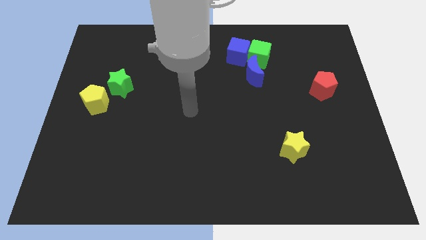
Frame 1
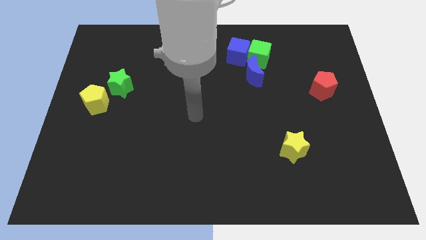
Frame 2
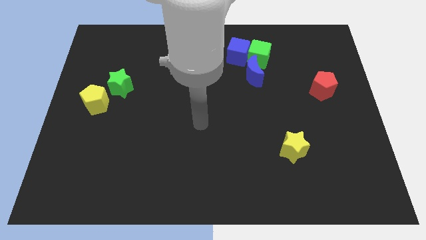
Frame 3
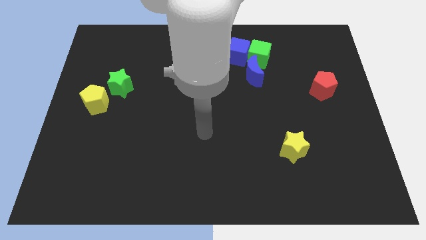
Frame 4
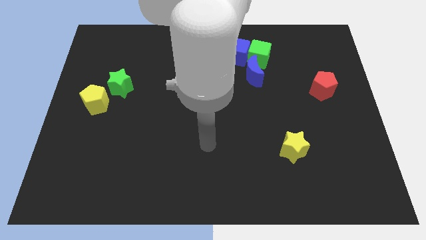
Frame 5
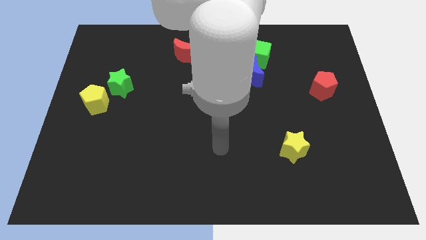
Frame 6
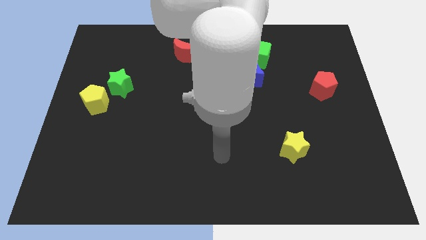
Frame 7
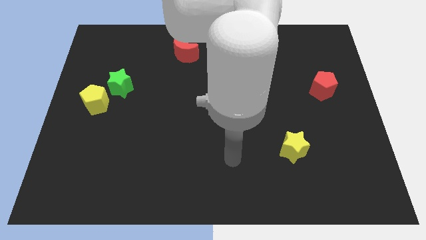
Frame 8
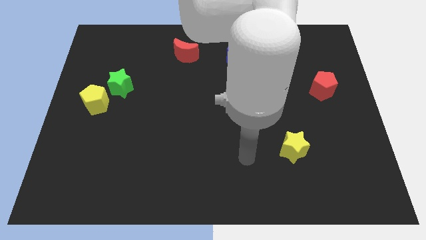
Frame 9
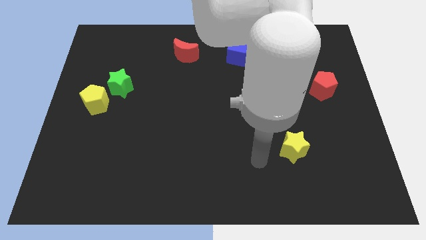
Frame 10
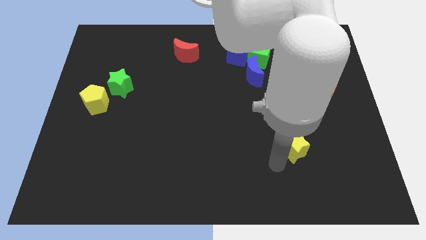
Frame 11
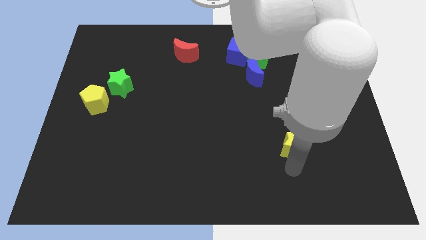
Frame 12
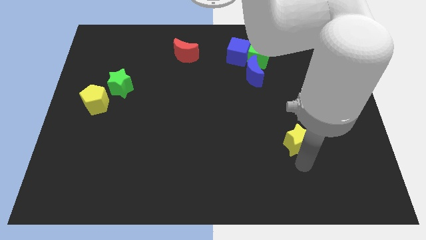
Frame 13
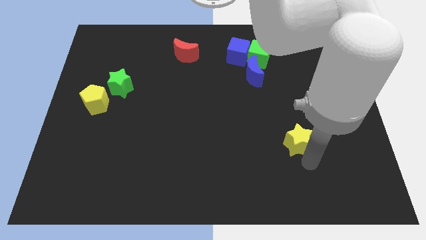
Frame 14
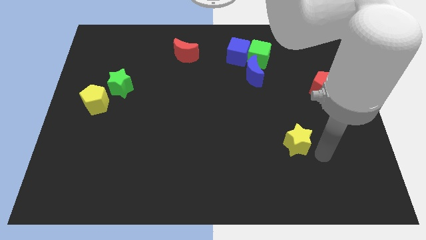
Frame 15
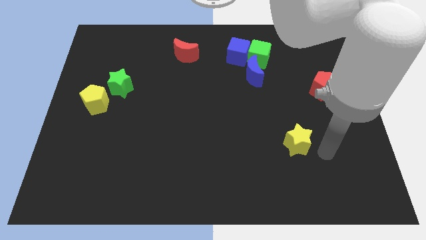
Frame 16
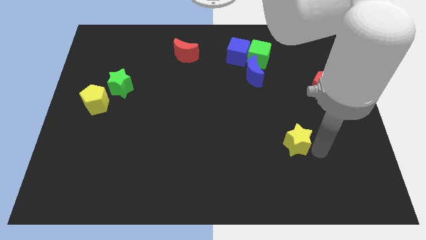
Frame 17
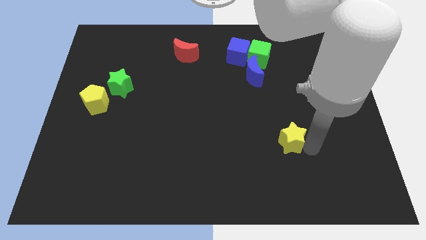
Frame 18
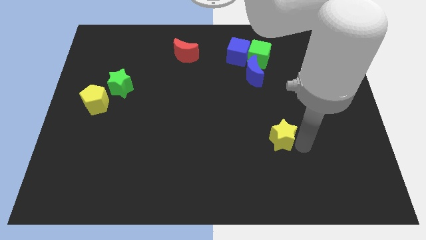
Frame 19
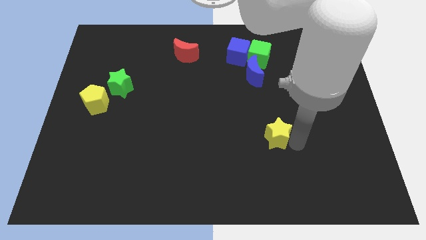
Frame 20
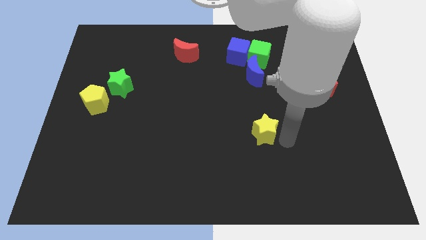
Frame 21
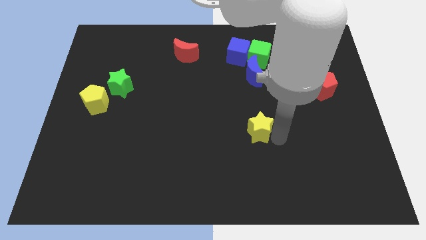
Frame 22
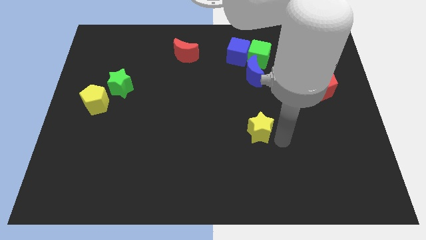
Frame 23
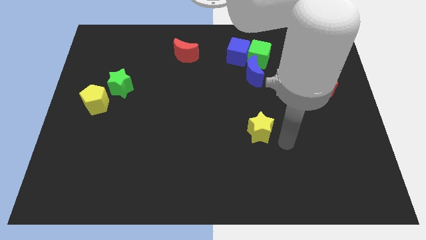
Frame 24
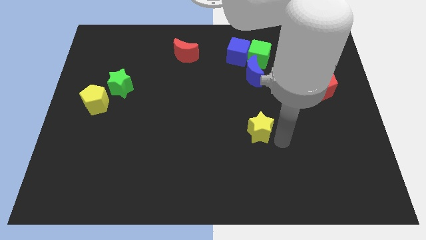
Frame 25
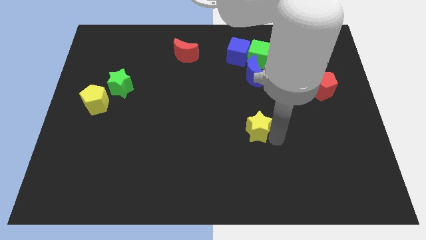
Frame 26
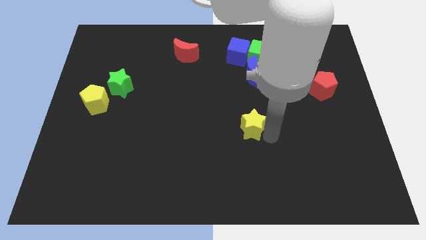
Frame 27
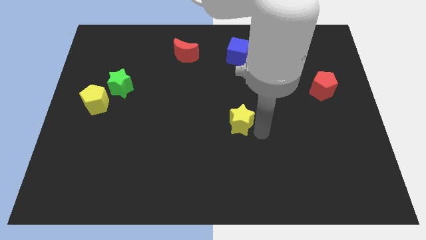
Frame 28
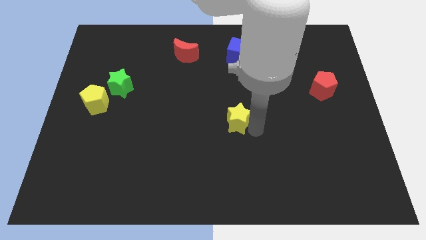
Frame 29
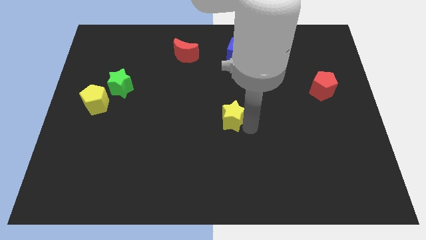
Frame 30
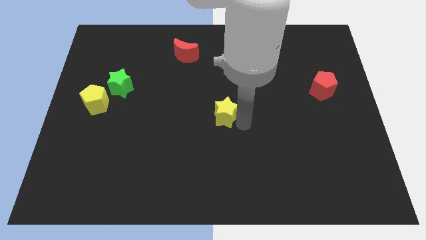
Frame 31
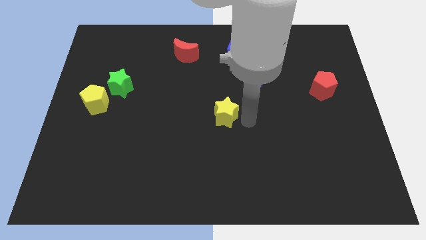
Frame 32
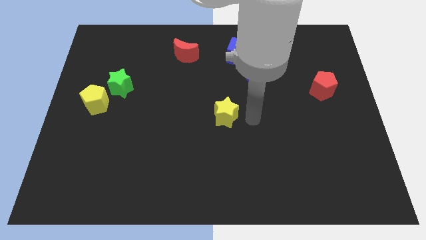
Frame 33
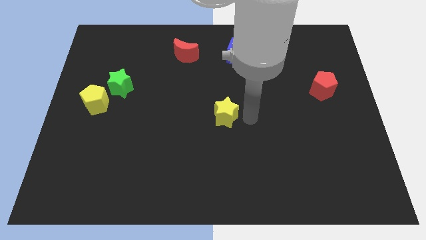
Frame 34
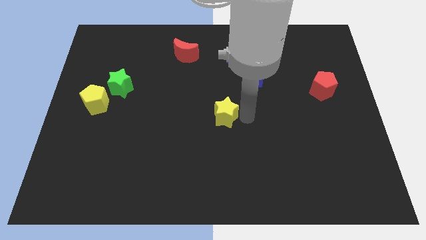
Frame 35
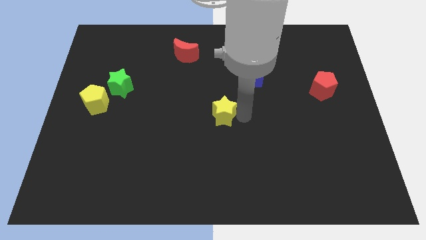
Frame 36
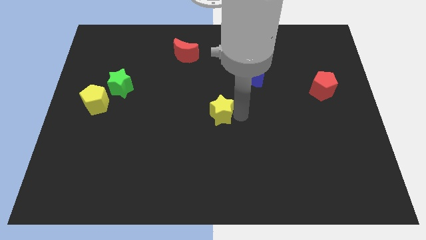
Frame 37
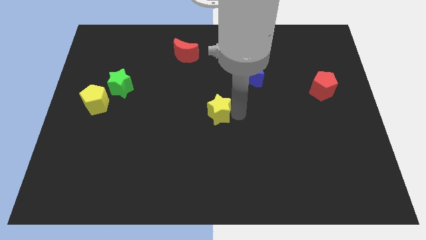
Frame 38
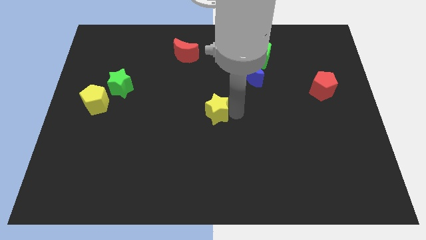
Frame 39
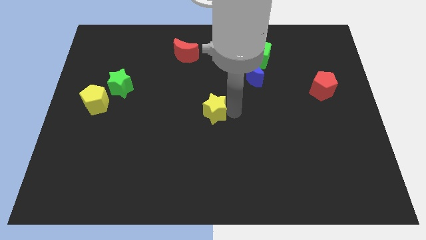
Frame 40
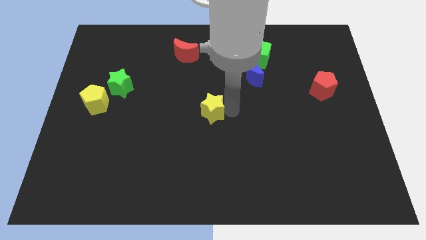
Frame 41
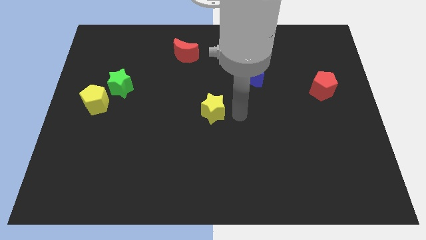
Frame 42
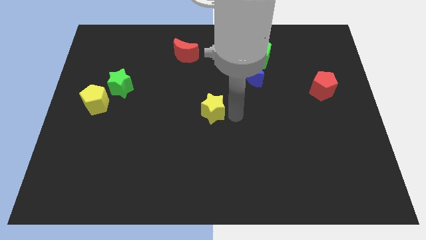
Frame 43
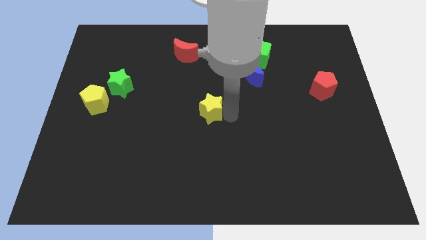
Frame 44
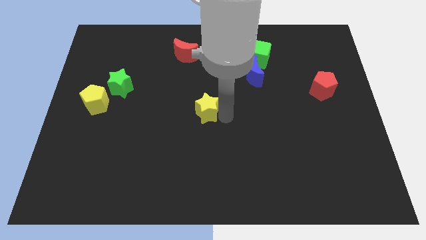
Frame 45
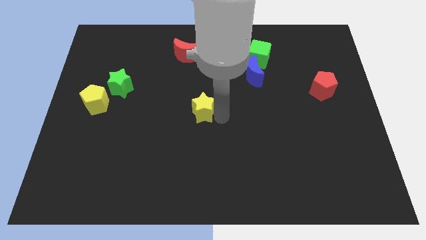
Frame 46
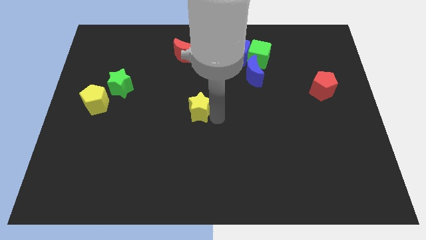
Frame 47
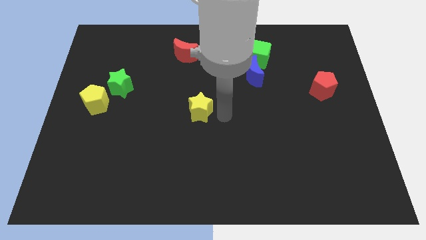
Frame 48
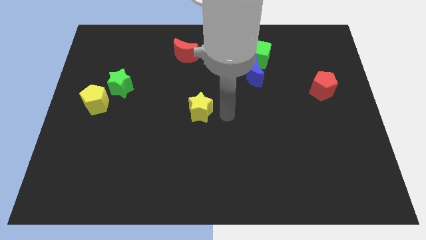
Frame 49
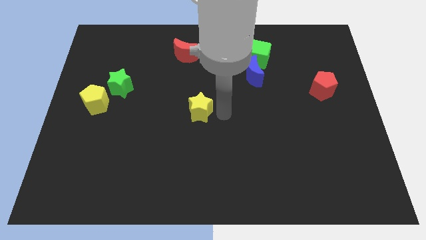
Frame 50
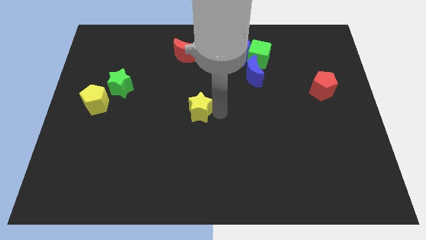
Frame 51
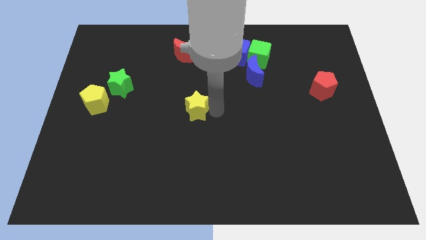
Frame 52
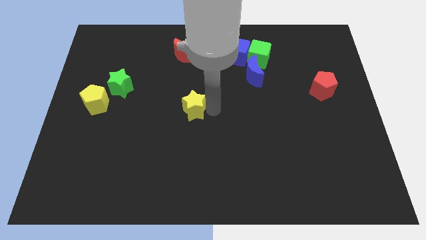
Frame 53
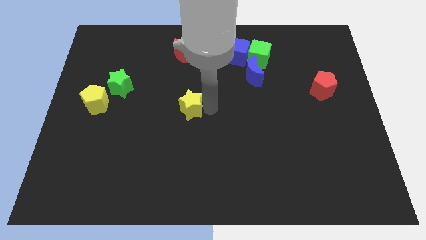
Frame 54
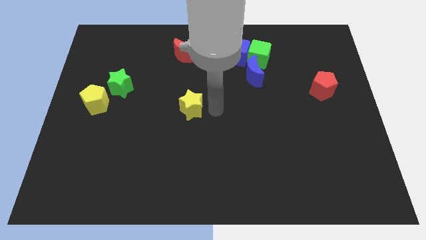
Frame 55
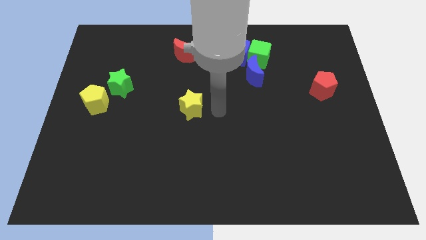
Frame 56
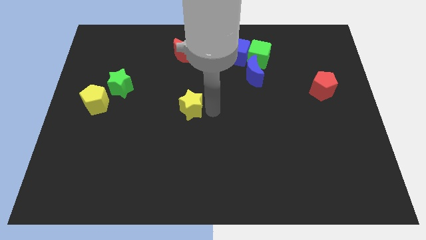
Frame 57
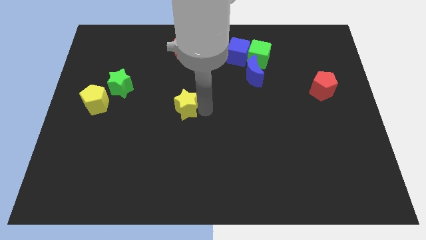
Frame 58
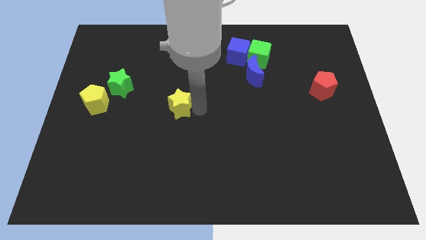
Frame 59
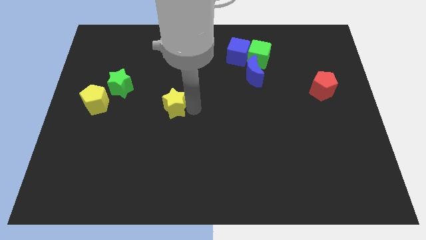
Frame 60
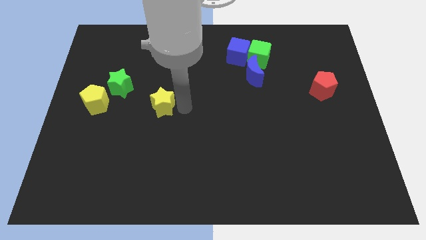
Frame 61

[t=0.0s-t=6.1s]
slide the yellow star to the bottom right of the green star
